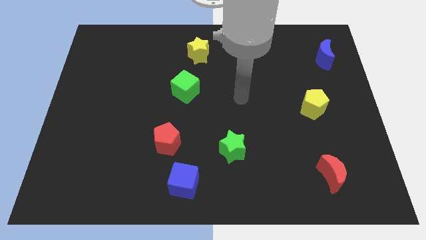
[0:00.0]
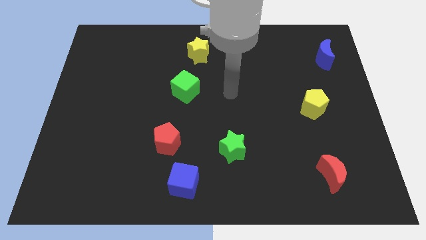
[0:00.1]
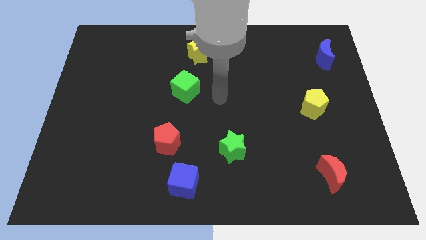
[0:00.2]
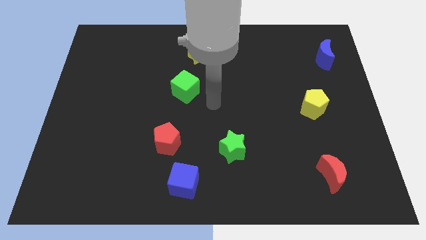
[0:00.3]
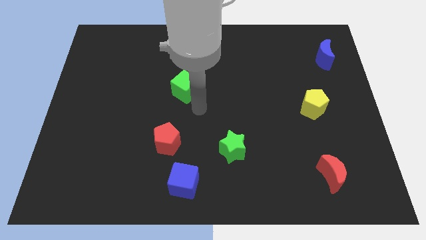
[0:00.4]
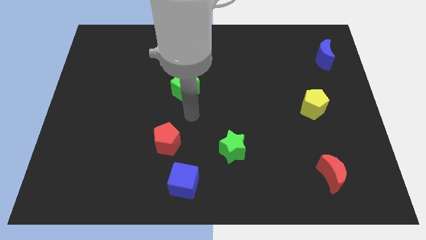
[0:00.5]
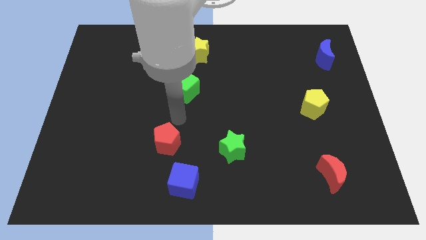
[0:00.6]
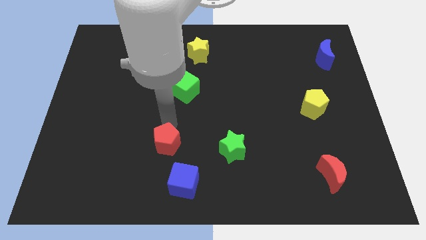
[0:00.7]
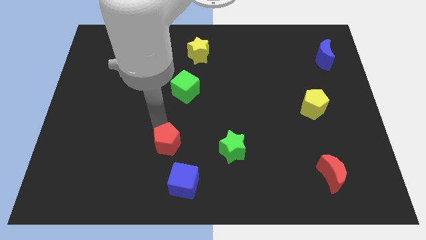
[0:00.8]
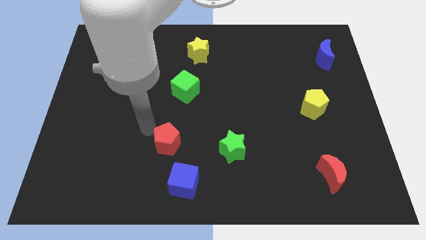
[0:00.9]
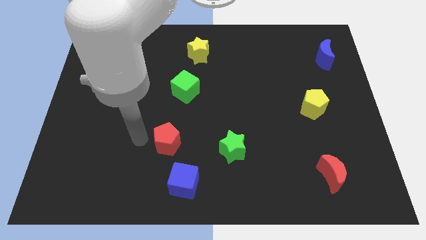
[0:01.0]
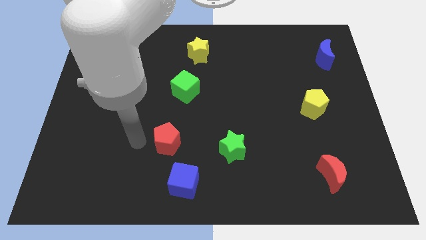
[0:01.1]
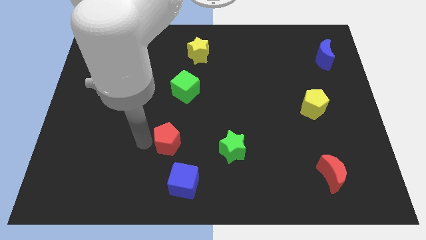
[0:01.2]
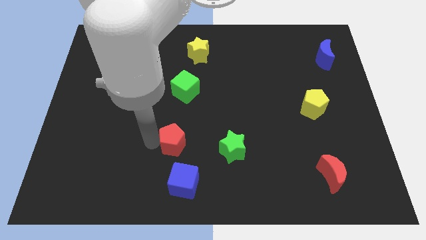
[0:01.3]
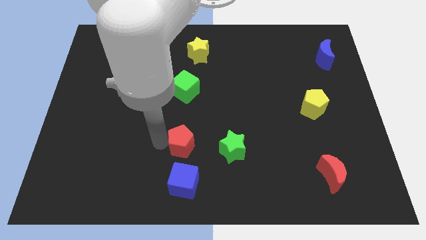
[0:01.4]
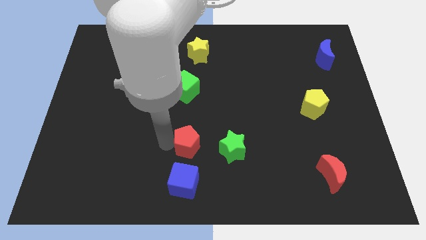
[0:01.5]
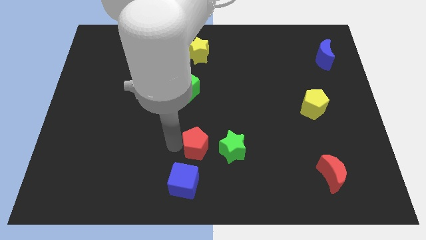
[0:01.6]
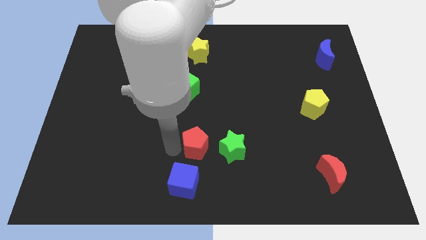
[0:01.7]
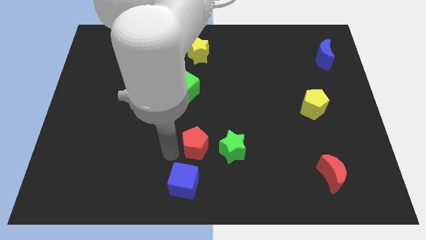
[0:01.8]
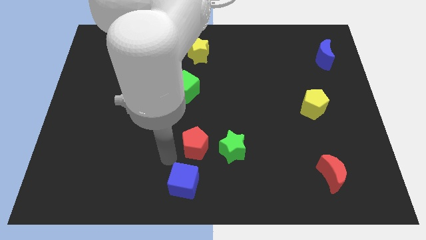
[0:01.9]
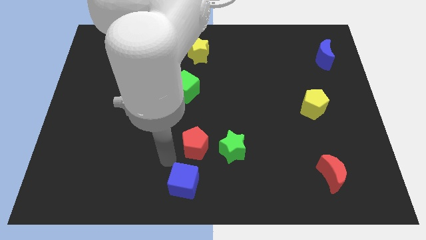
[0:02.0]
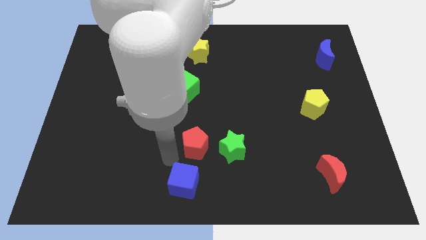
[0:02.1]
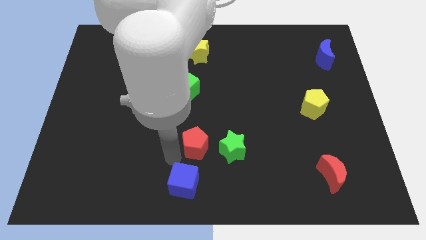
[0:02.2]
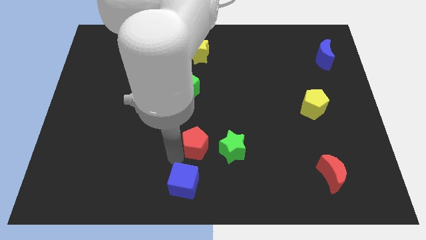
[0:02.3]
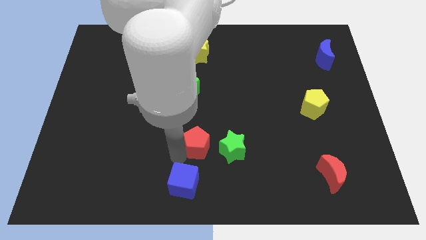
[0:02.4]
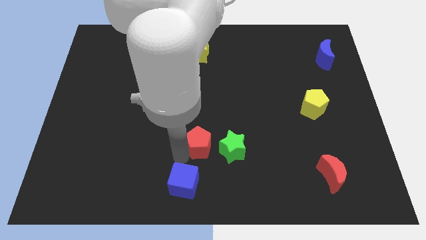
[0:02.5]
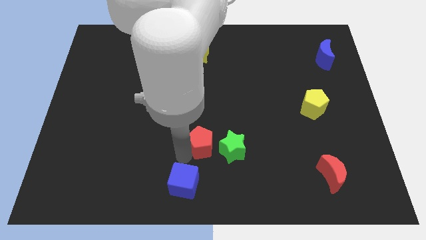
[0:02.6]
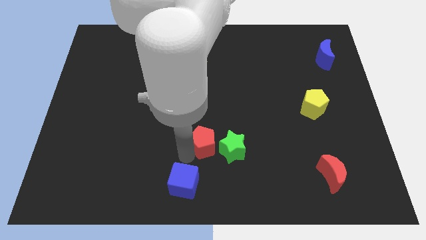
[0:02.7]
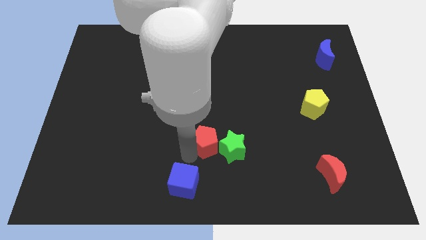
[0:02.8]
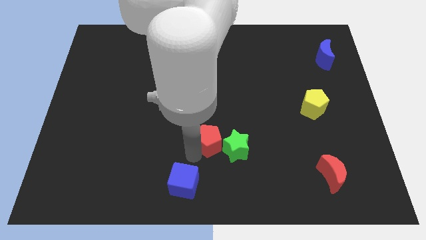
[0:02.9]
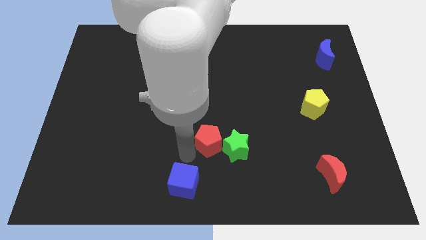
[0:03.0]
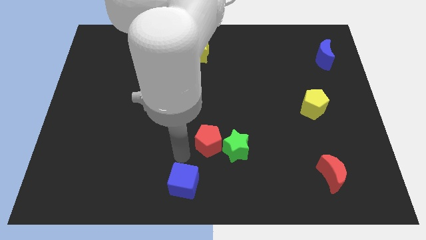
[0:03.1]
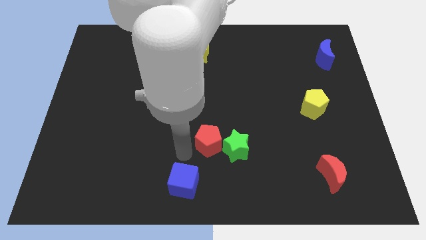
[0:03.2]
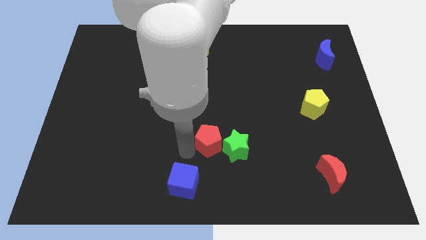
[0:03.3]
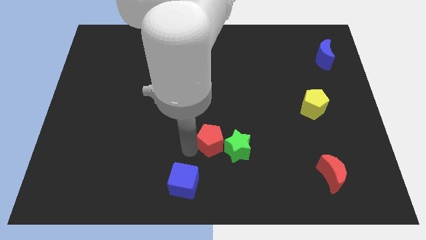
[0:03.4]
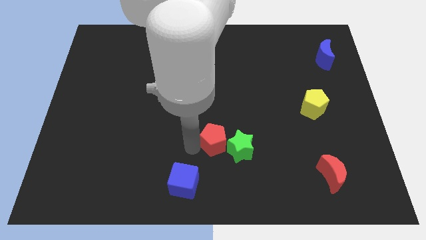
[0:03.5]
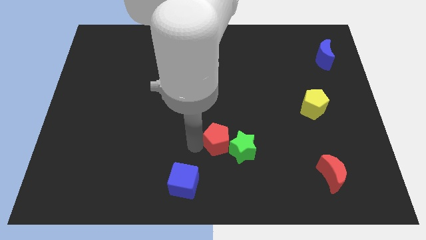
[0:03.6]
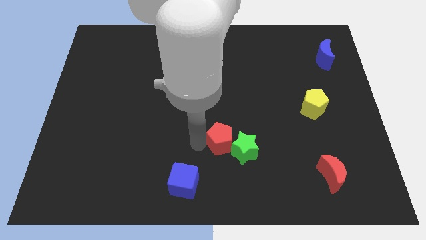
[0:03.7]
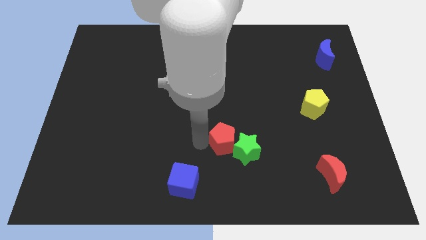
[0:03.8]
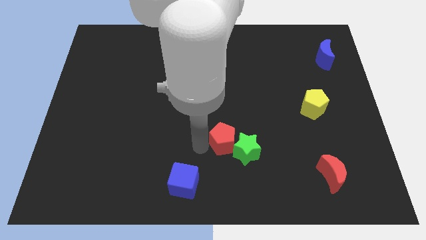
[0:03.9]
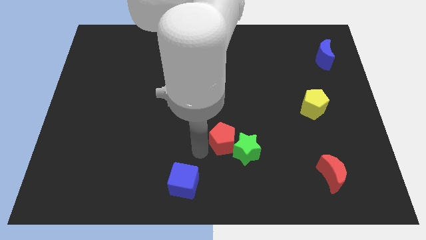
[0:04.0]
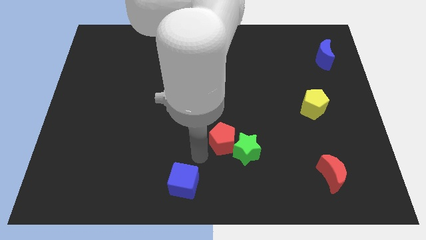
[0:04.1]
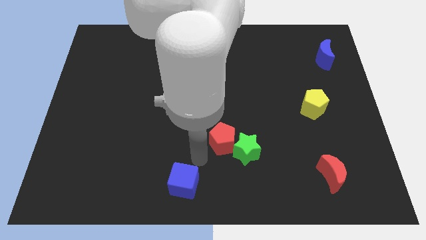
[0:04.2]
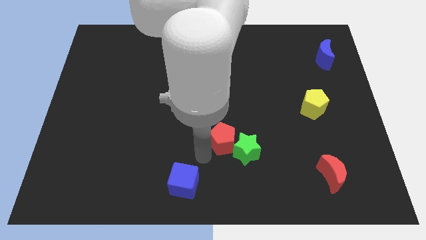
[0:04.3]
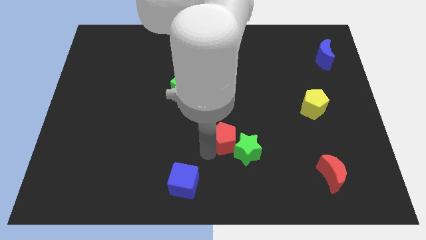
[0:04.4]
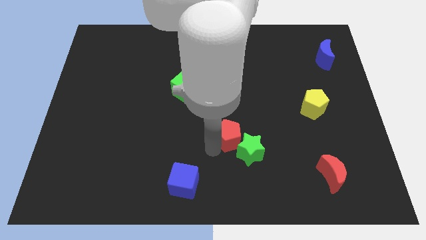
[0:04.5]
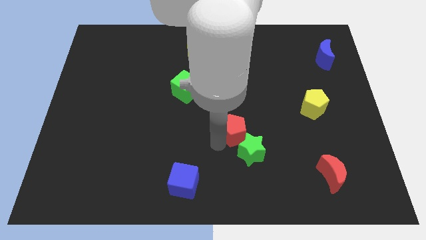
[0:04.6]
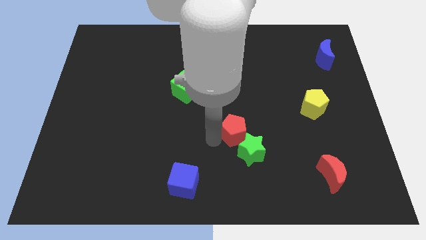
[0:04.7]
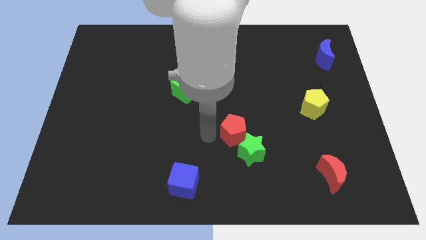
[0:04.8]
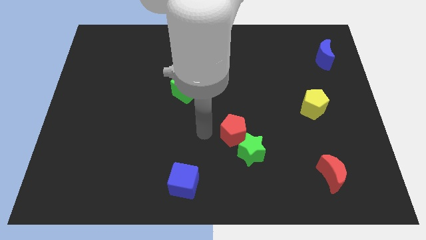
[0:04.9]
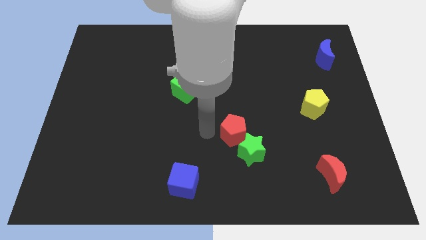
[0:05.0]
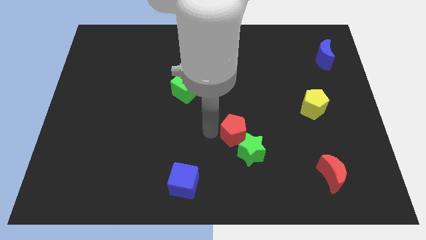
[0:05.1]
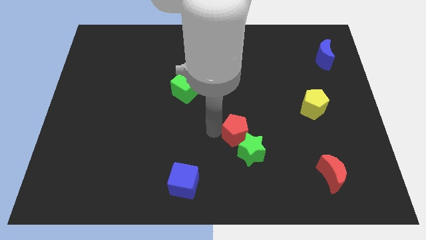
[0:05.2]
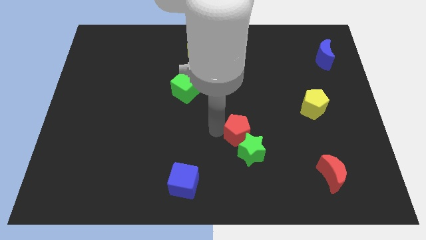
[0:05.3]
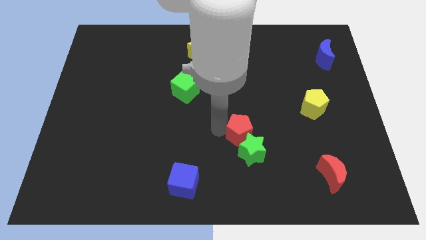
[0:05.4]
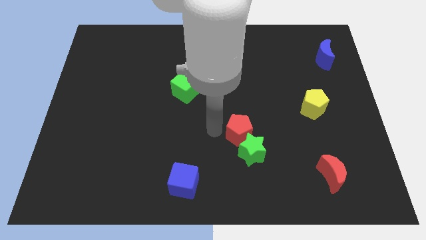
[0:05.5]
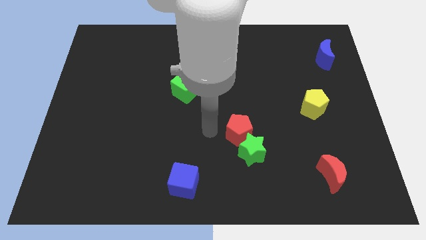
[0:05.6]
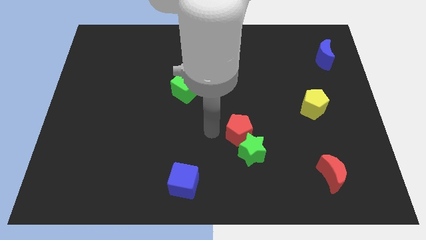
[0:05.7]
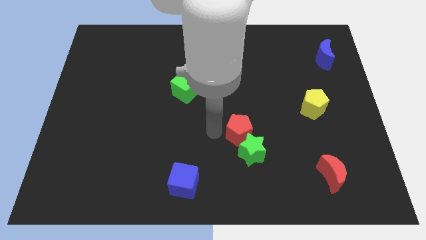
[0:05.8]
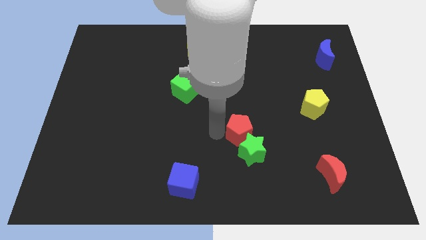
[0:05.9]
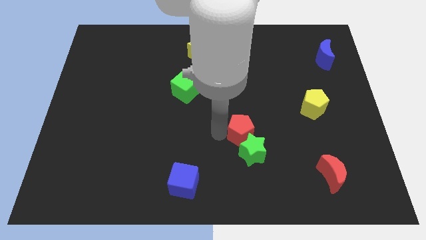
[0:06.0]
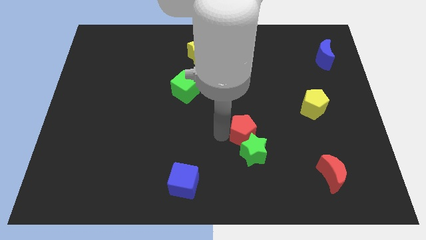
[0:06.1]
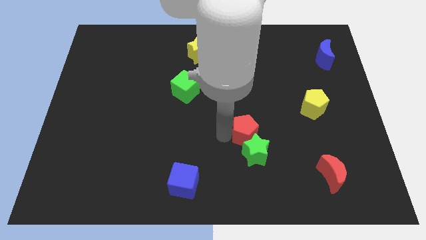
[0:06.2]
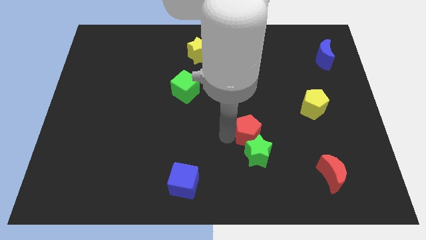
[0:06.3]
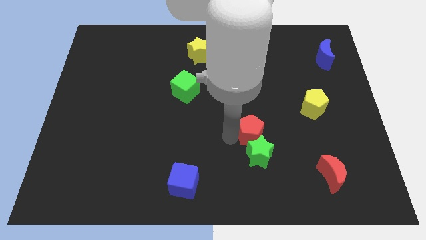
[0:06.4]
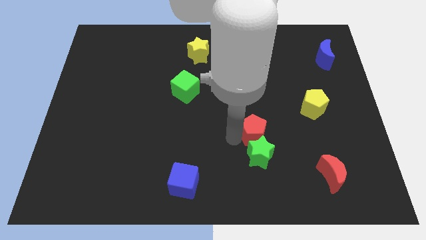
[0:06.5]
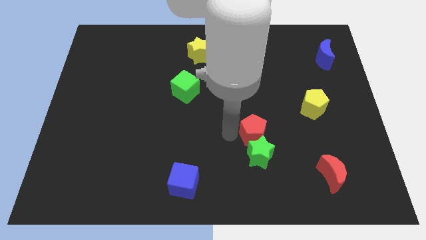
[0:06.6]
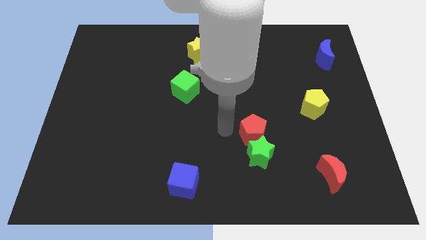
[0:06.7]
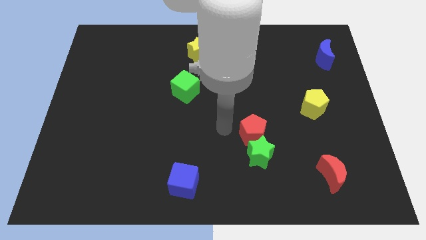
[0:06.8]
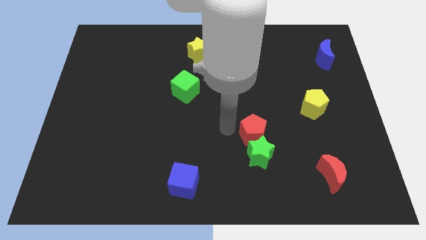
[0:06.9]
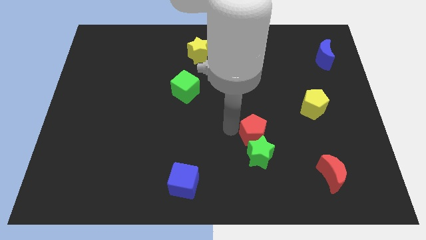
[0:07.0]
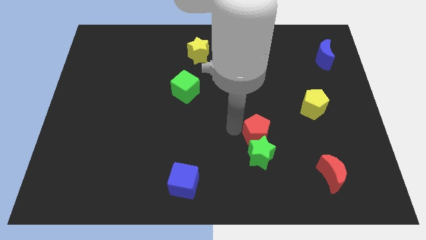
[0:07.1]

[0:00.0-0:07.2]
slide the red pentagon to the right

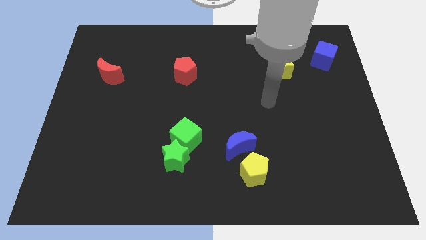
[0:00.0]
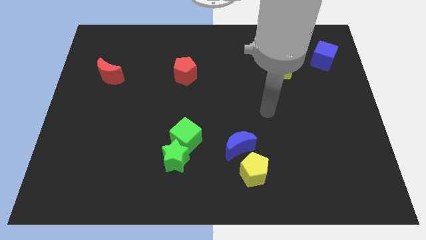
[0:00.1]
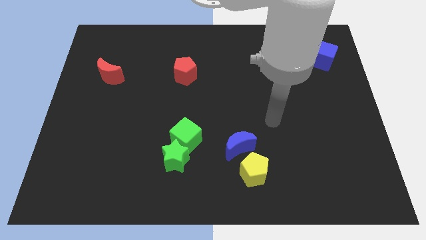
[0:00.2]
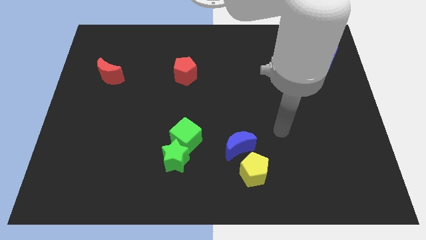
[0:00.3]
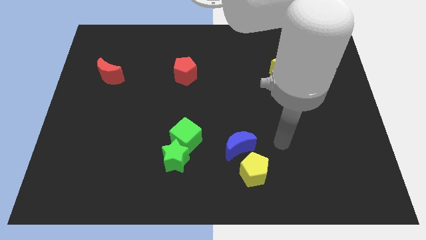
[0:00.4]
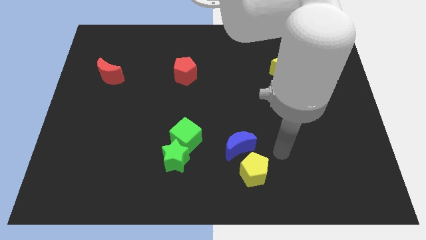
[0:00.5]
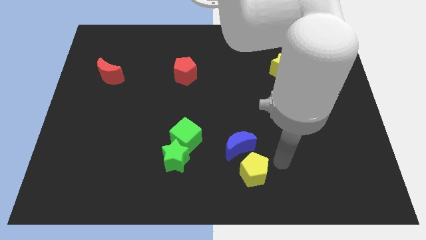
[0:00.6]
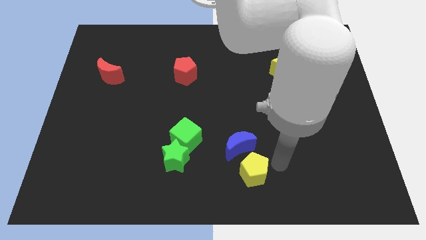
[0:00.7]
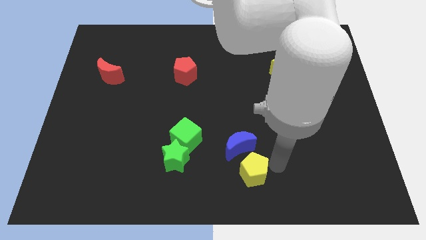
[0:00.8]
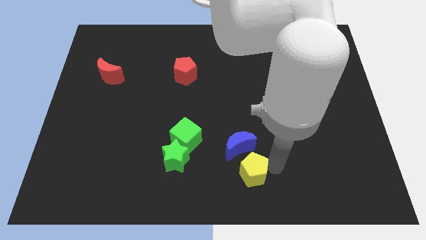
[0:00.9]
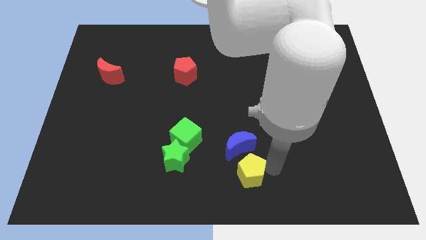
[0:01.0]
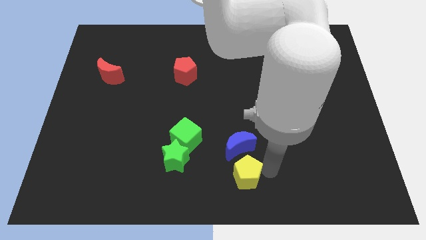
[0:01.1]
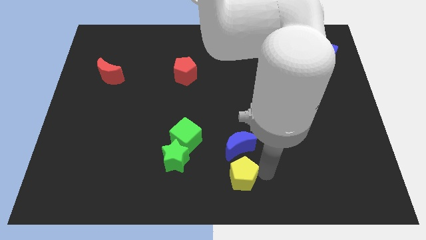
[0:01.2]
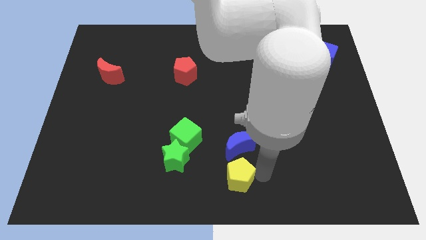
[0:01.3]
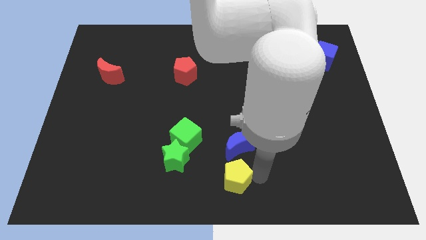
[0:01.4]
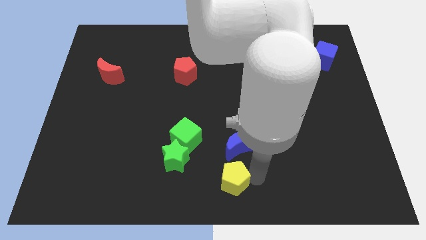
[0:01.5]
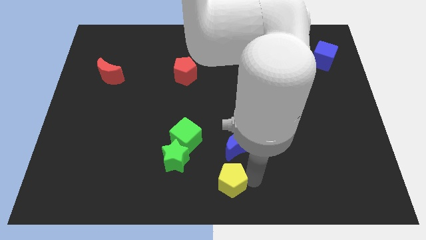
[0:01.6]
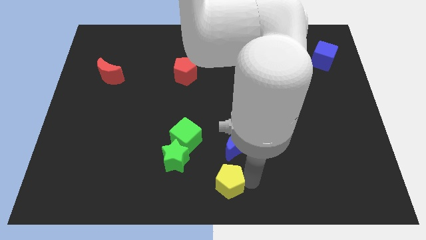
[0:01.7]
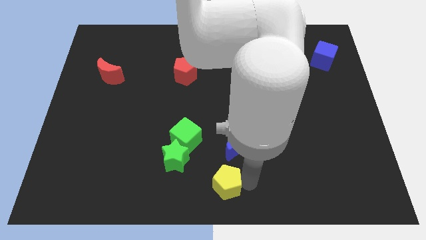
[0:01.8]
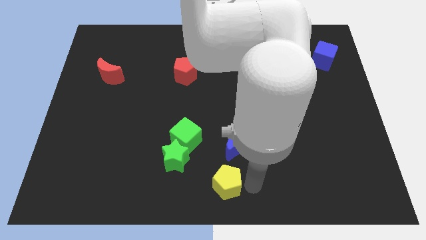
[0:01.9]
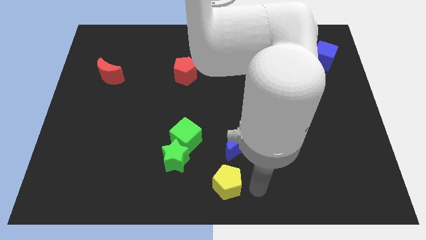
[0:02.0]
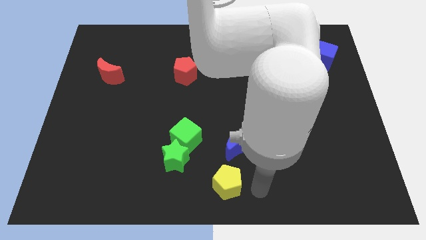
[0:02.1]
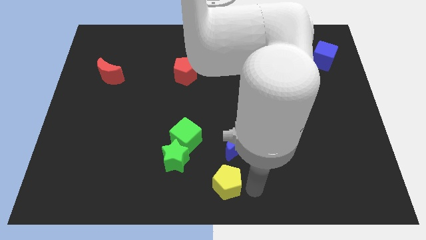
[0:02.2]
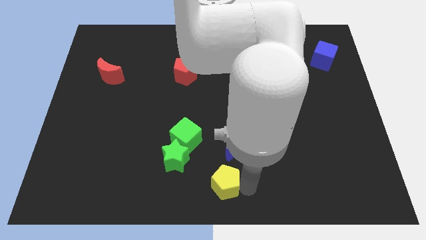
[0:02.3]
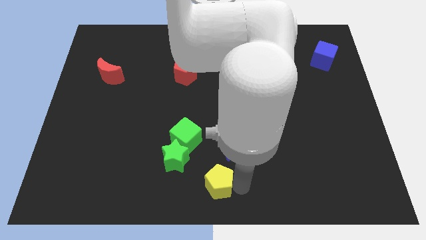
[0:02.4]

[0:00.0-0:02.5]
slightly slide the yellow pentagon to the left
